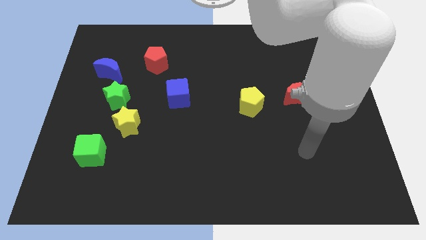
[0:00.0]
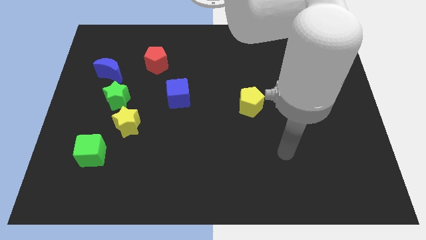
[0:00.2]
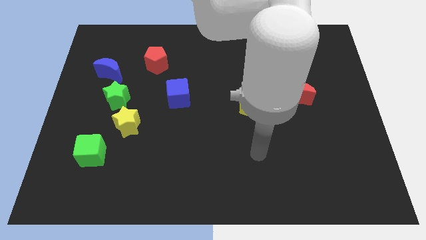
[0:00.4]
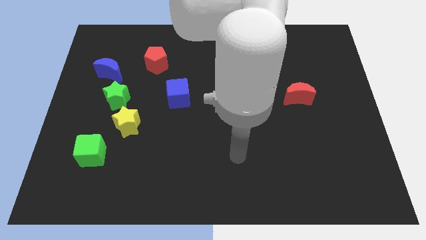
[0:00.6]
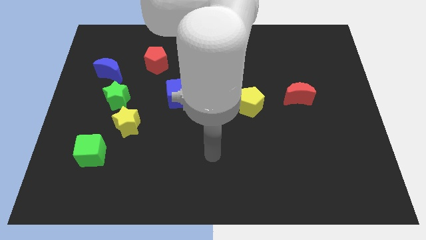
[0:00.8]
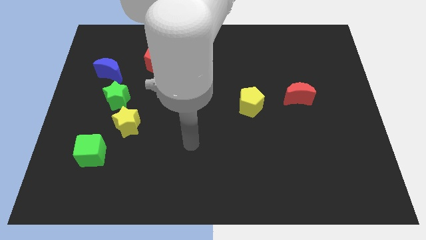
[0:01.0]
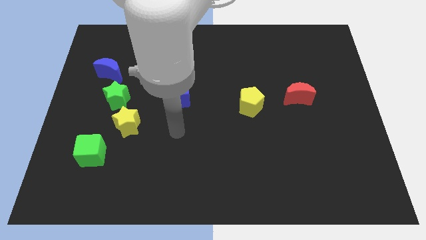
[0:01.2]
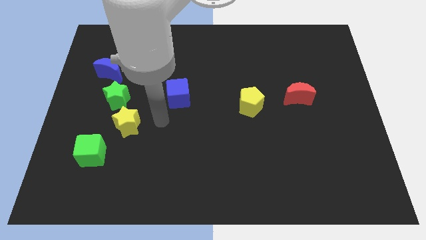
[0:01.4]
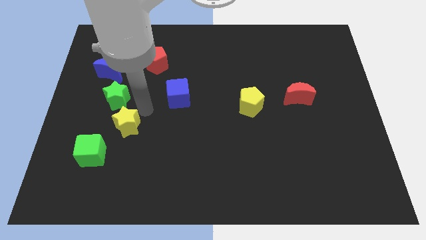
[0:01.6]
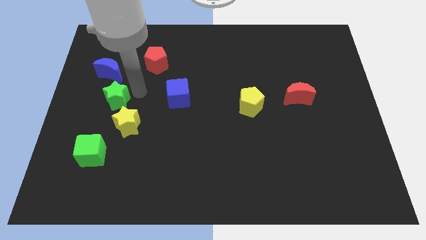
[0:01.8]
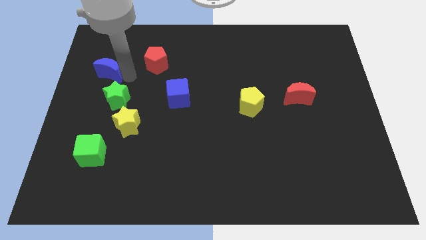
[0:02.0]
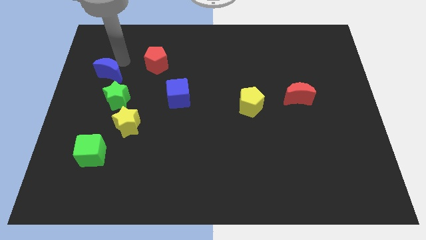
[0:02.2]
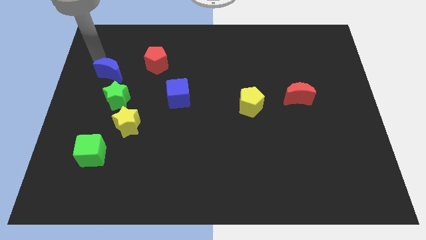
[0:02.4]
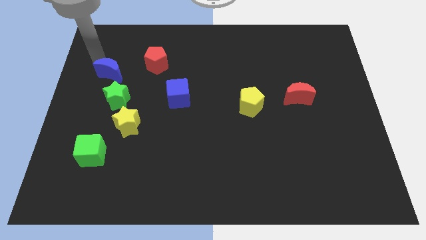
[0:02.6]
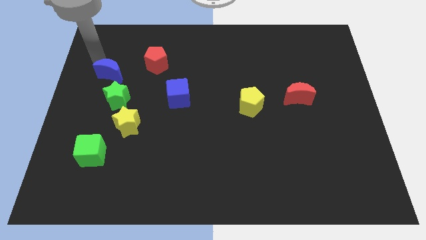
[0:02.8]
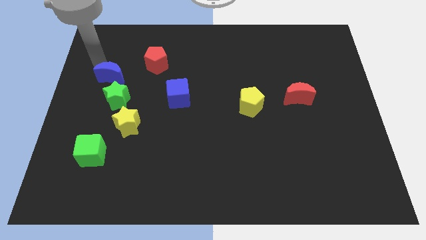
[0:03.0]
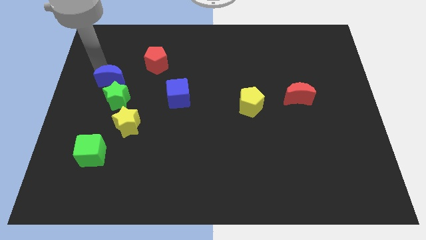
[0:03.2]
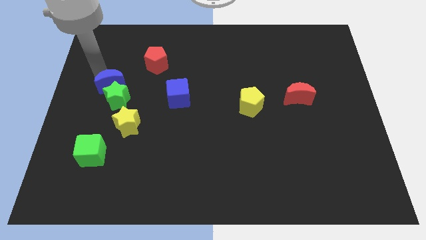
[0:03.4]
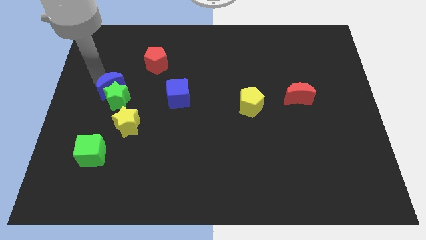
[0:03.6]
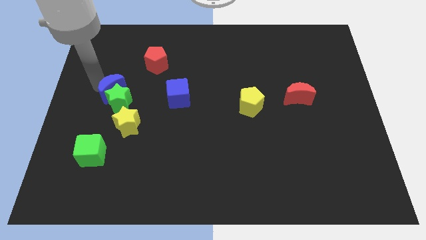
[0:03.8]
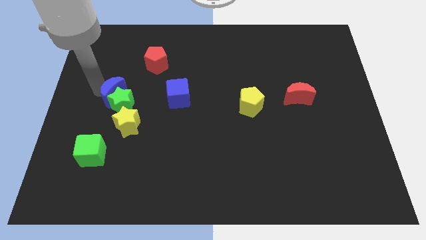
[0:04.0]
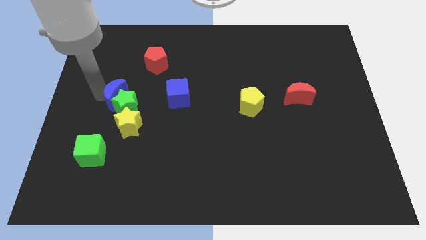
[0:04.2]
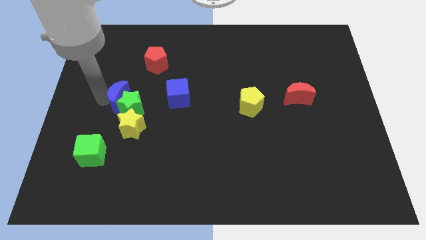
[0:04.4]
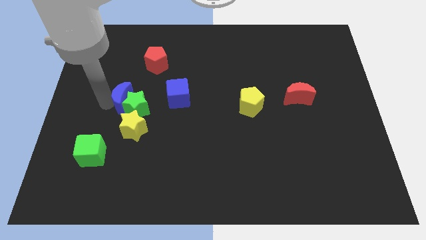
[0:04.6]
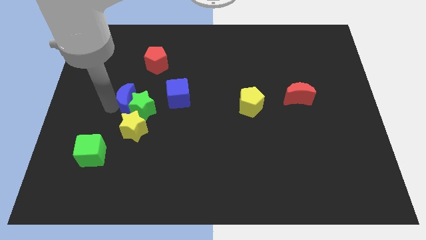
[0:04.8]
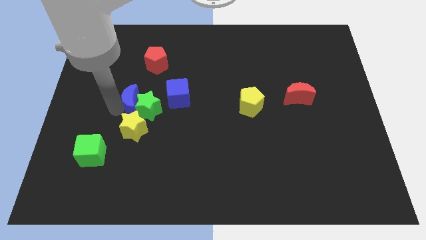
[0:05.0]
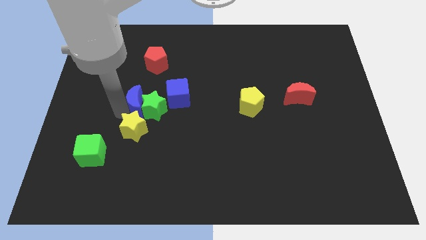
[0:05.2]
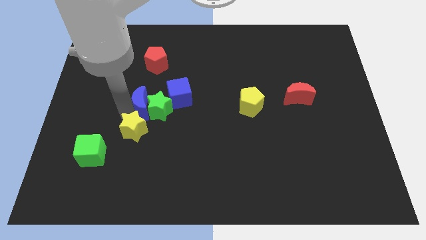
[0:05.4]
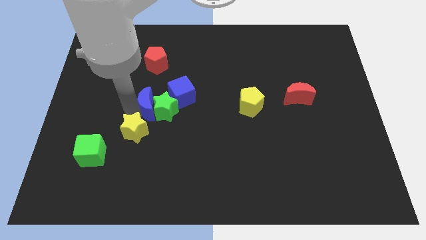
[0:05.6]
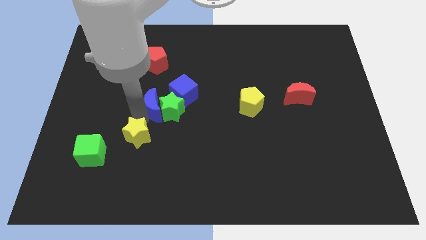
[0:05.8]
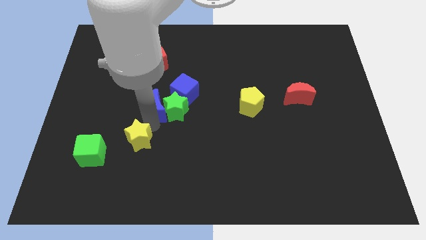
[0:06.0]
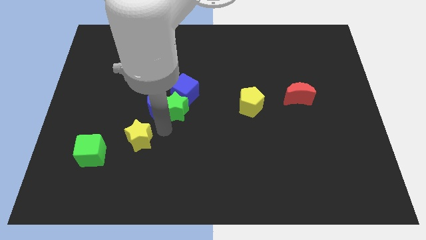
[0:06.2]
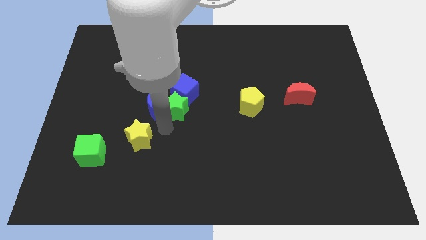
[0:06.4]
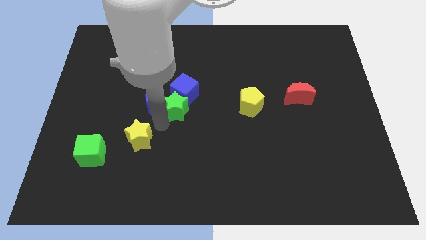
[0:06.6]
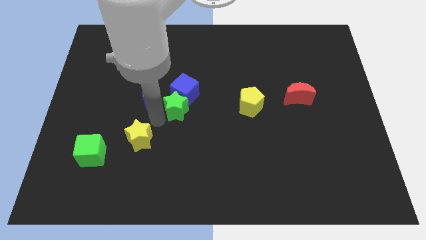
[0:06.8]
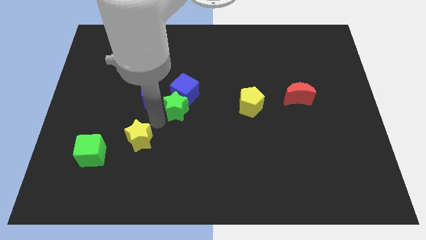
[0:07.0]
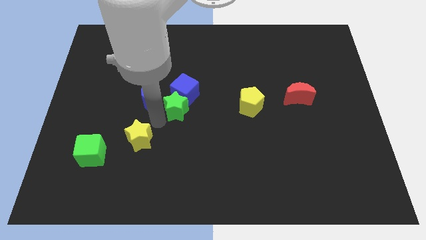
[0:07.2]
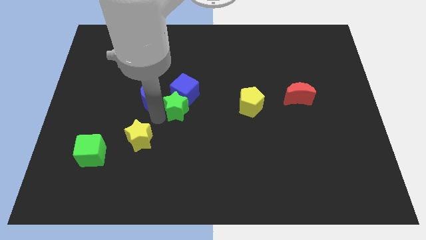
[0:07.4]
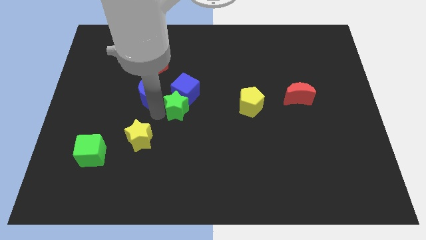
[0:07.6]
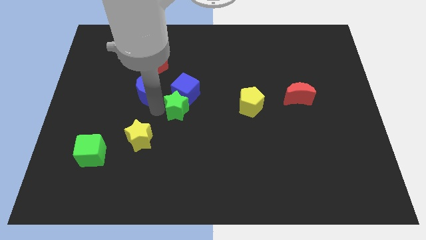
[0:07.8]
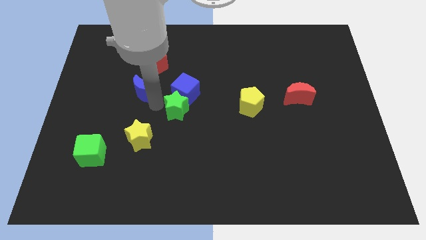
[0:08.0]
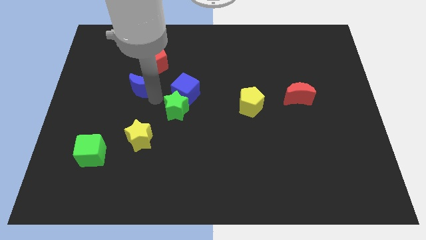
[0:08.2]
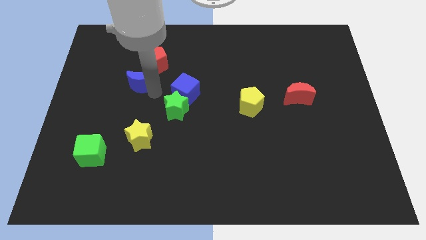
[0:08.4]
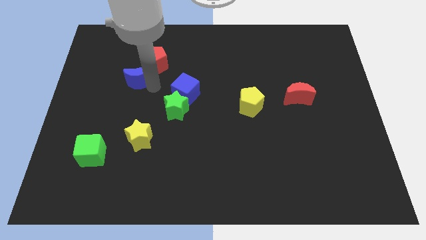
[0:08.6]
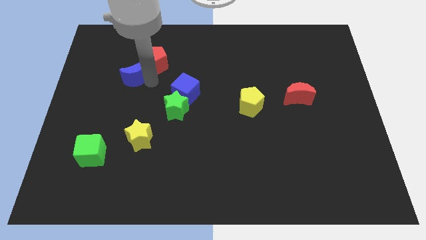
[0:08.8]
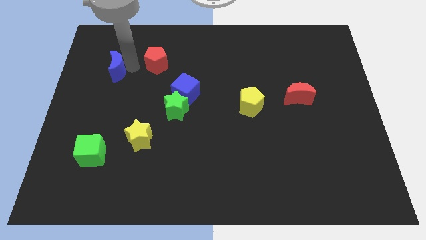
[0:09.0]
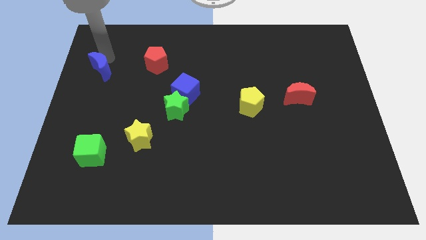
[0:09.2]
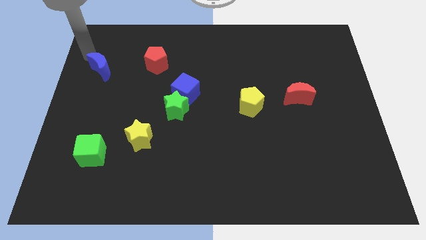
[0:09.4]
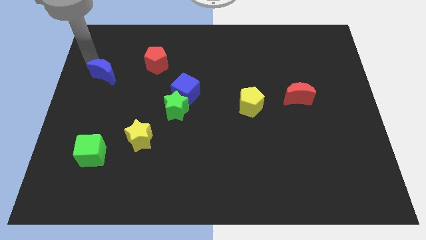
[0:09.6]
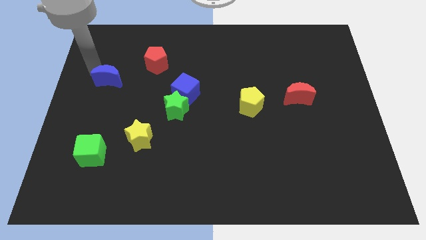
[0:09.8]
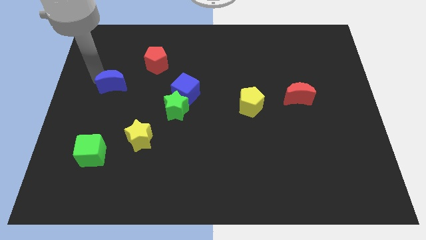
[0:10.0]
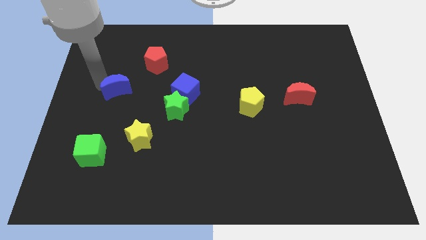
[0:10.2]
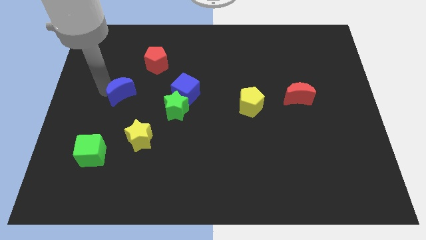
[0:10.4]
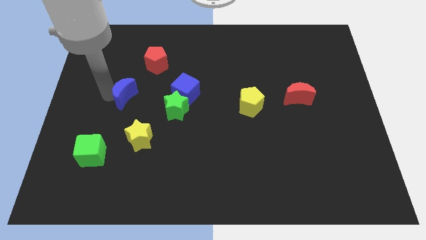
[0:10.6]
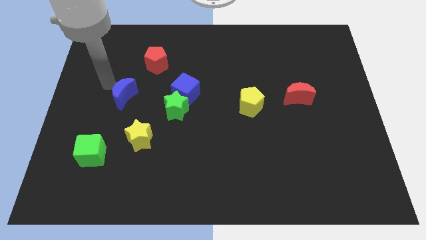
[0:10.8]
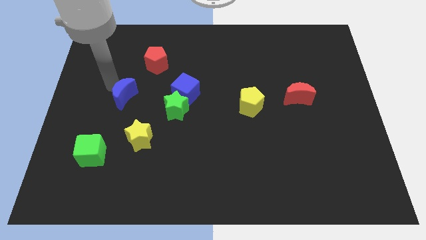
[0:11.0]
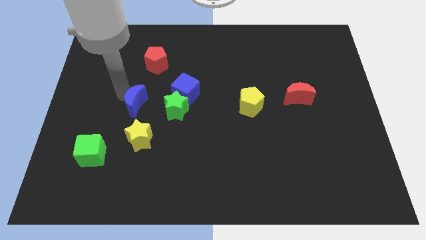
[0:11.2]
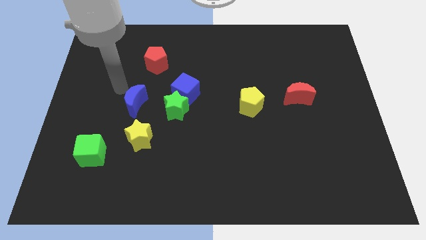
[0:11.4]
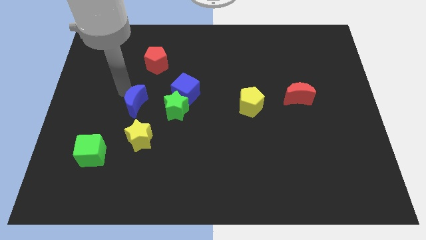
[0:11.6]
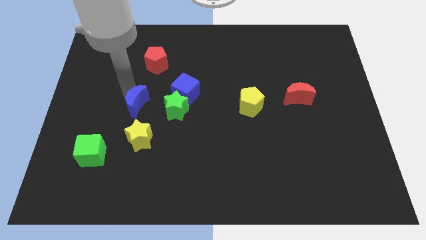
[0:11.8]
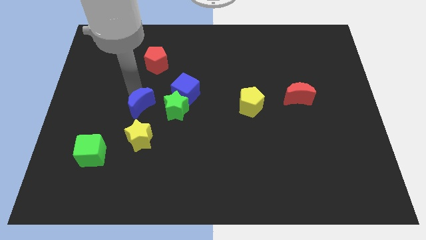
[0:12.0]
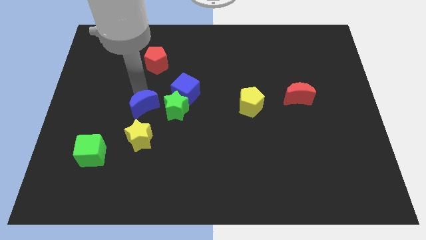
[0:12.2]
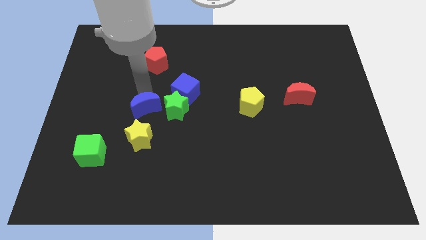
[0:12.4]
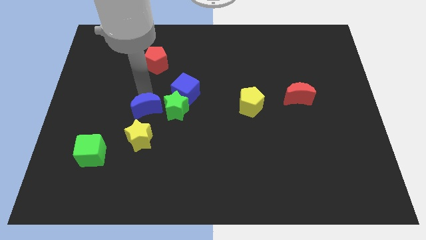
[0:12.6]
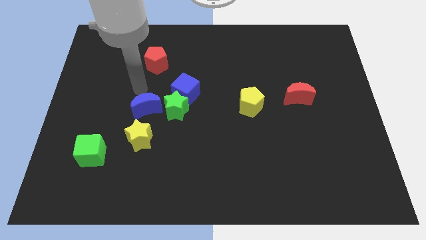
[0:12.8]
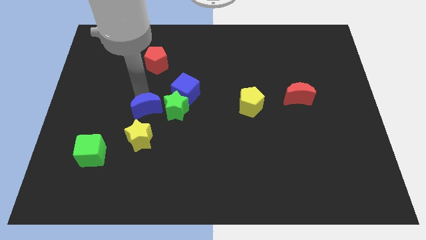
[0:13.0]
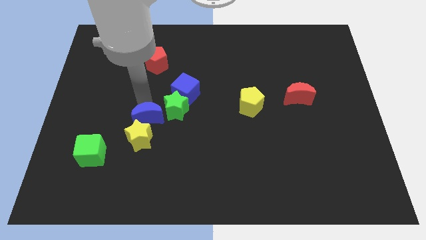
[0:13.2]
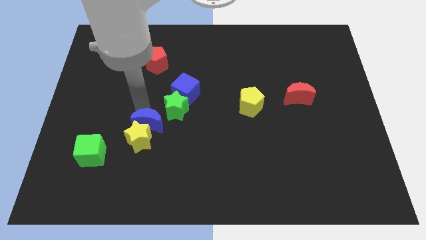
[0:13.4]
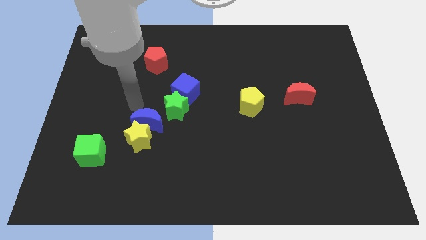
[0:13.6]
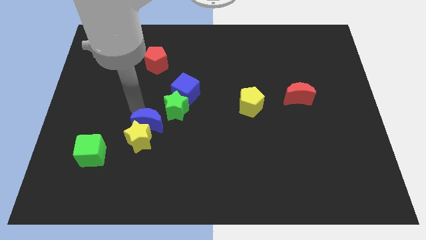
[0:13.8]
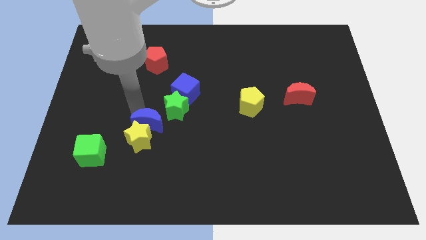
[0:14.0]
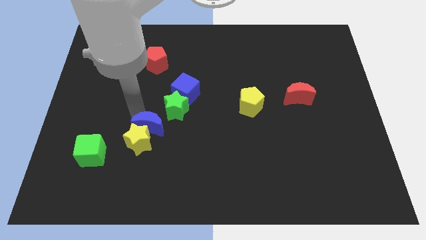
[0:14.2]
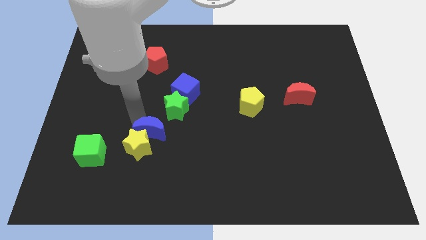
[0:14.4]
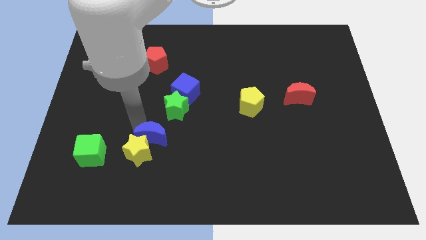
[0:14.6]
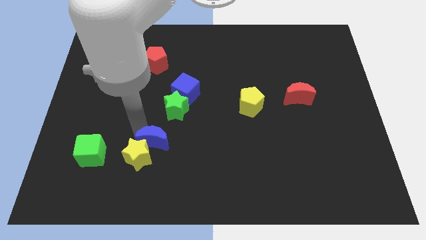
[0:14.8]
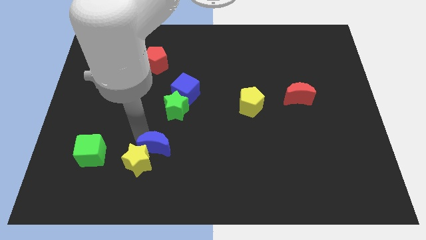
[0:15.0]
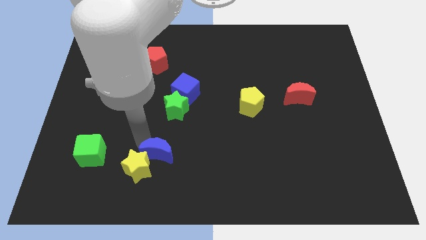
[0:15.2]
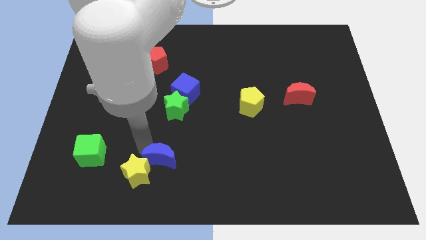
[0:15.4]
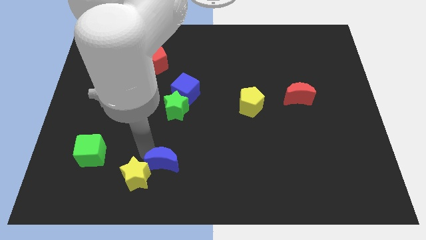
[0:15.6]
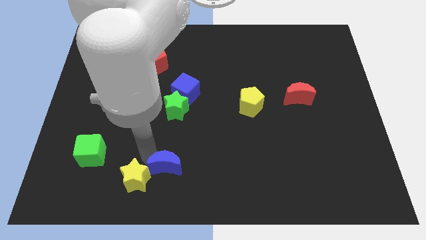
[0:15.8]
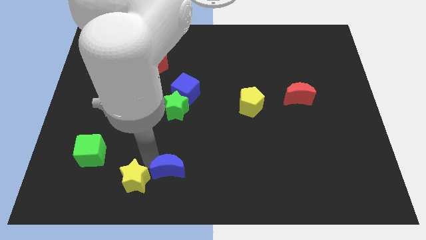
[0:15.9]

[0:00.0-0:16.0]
move the blue moon to the bottom
